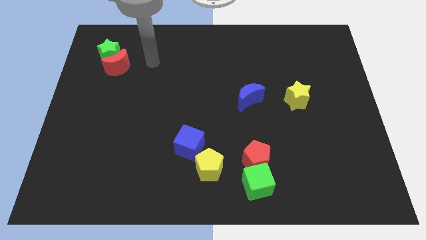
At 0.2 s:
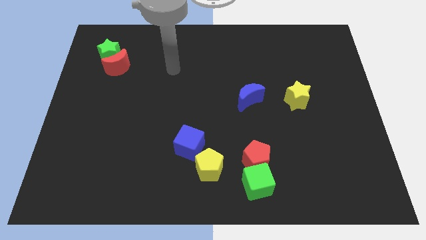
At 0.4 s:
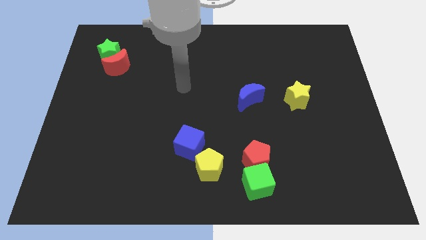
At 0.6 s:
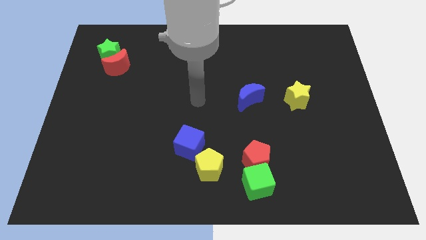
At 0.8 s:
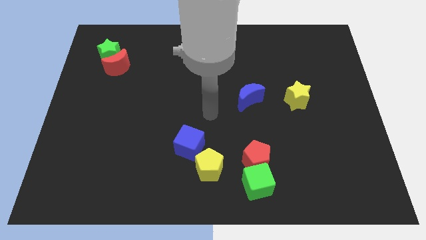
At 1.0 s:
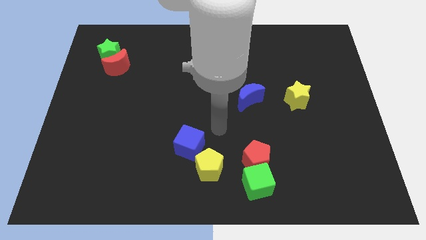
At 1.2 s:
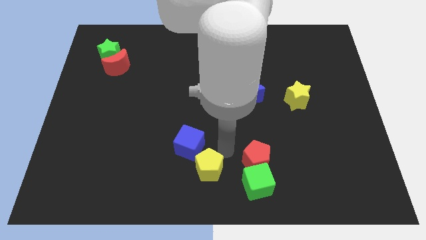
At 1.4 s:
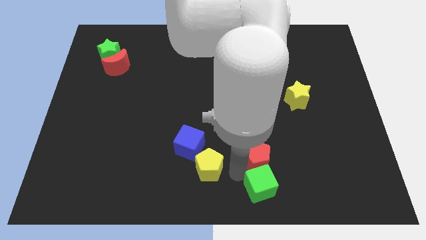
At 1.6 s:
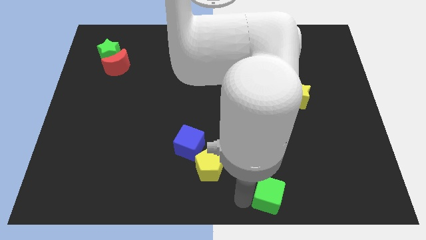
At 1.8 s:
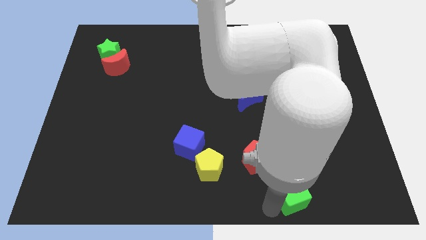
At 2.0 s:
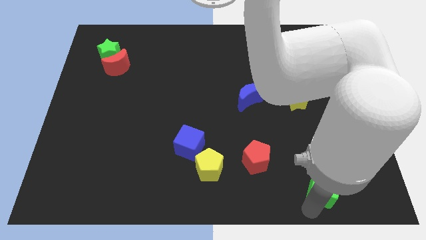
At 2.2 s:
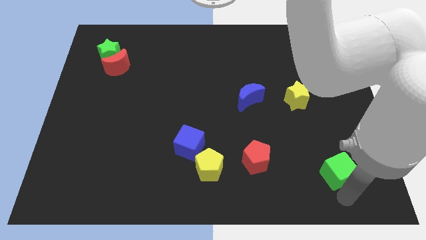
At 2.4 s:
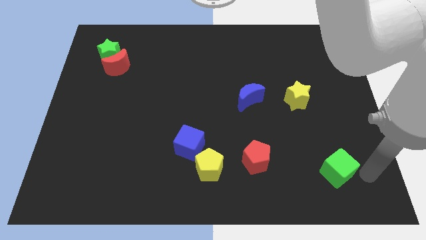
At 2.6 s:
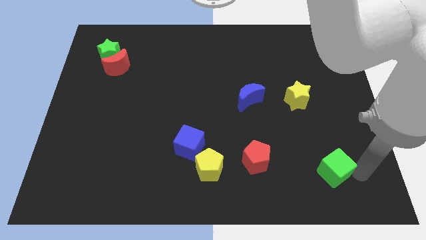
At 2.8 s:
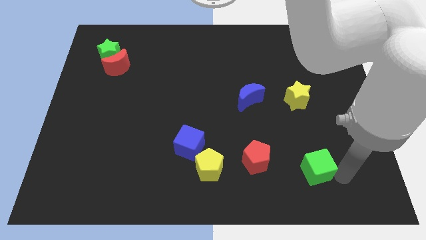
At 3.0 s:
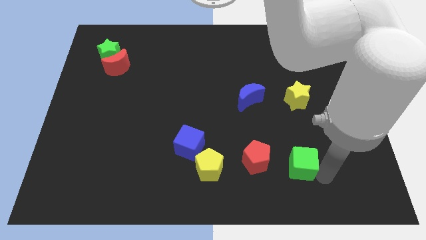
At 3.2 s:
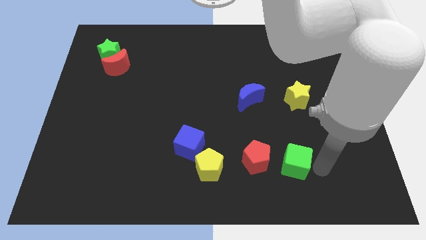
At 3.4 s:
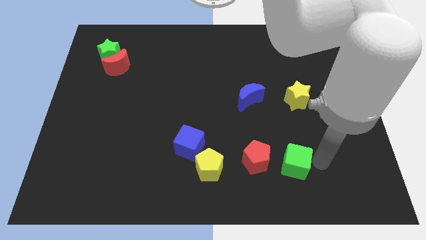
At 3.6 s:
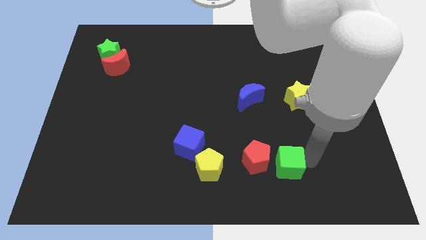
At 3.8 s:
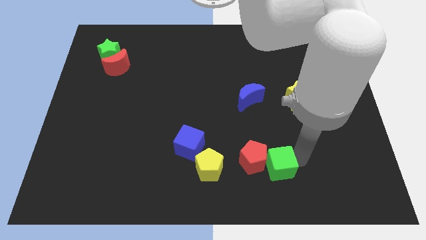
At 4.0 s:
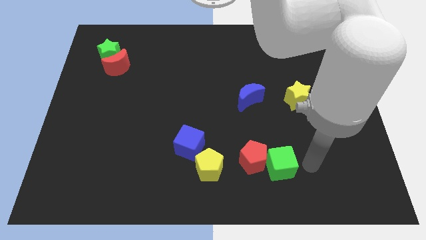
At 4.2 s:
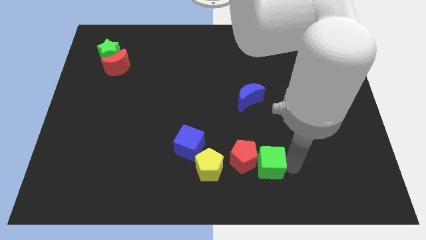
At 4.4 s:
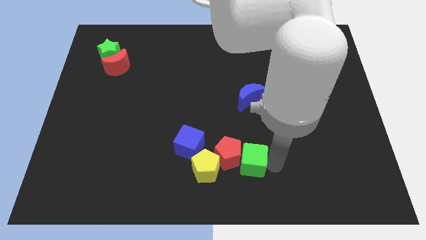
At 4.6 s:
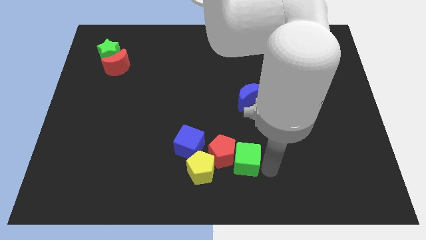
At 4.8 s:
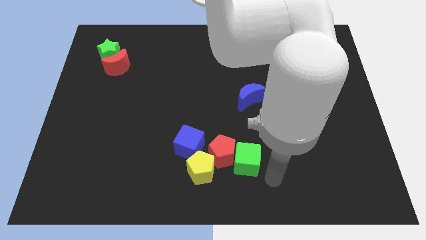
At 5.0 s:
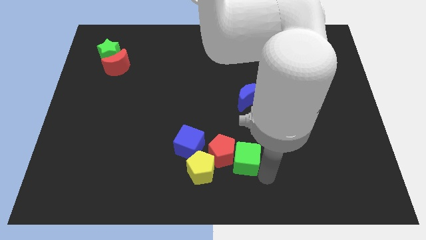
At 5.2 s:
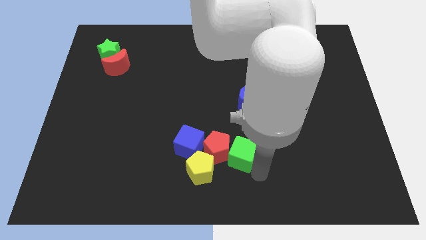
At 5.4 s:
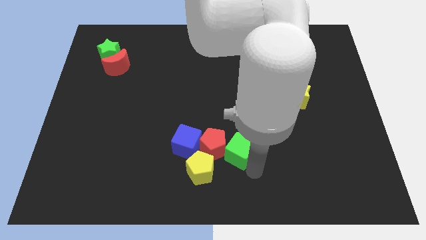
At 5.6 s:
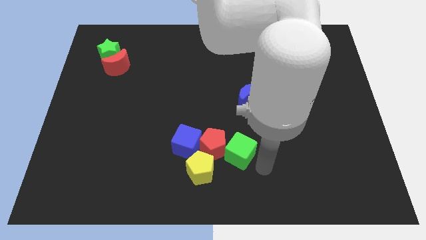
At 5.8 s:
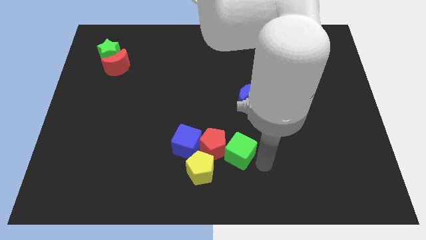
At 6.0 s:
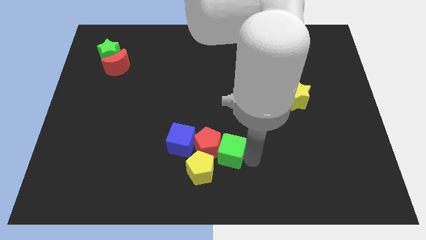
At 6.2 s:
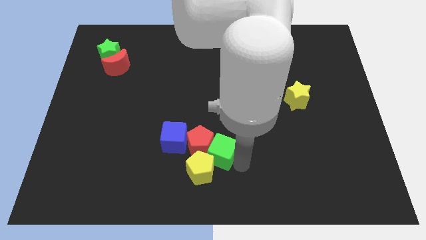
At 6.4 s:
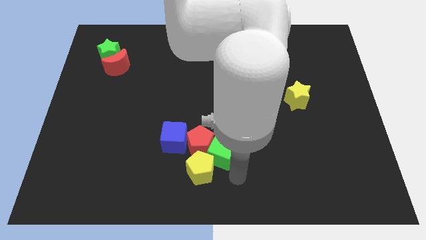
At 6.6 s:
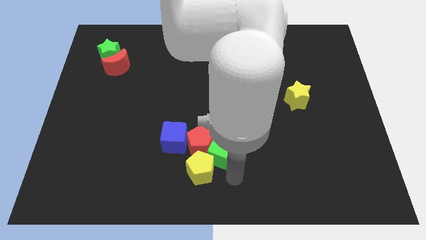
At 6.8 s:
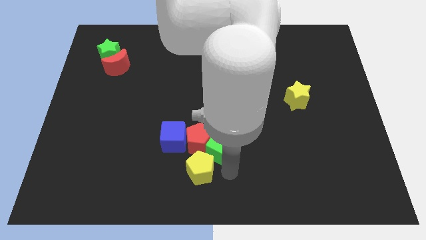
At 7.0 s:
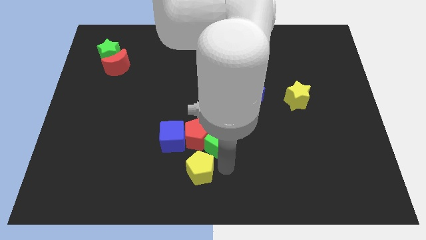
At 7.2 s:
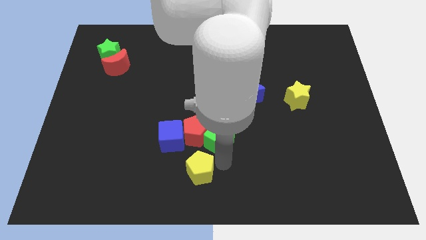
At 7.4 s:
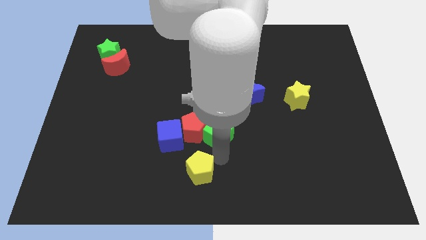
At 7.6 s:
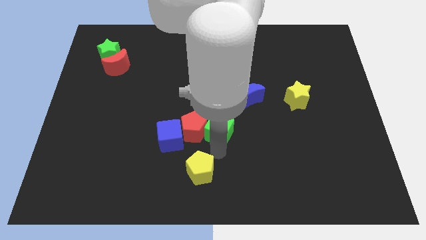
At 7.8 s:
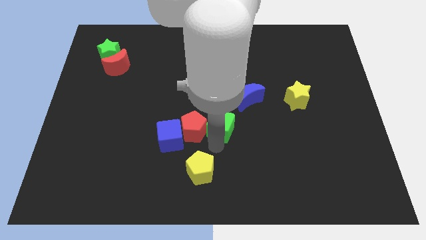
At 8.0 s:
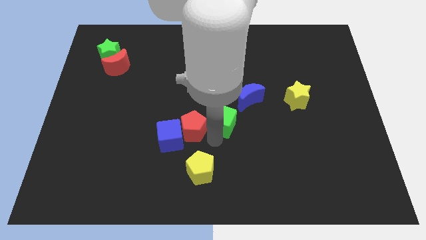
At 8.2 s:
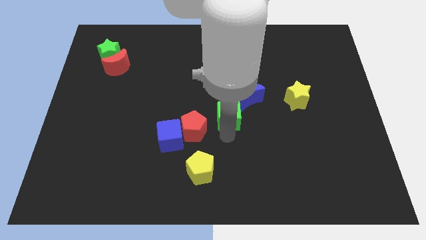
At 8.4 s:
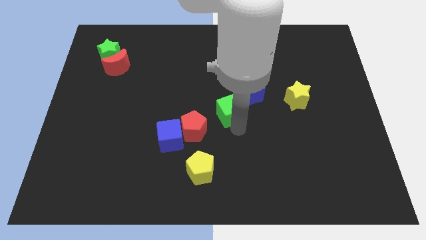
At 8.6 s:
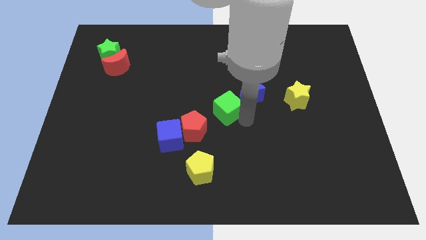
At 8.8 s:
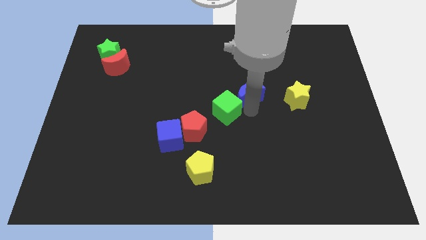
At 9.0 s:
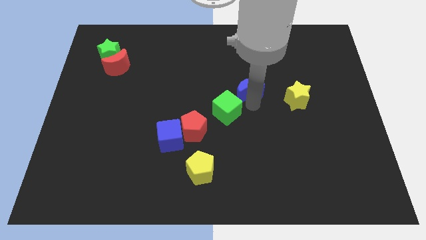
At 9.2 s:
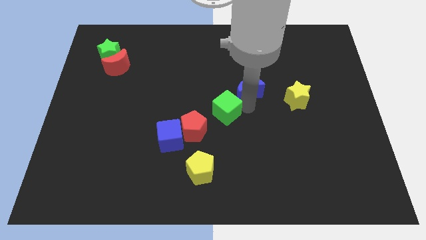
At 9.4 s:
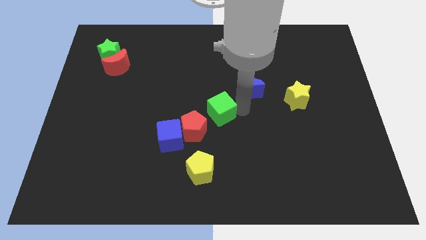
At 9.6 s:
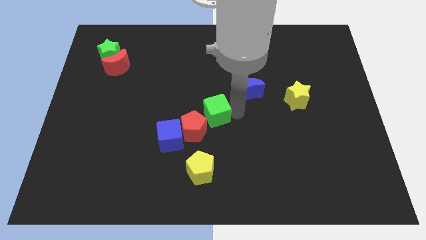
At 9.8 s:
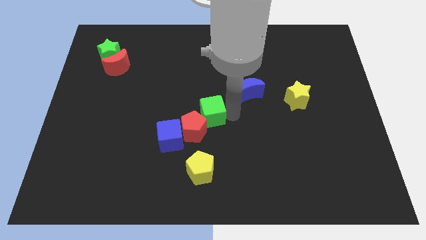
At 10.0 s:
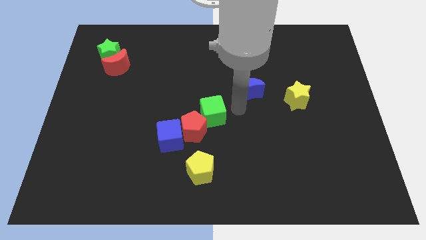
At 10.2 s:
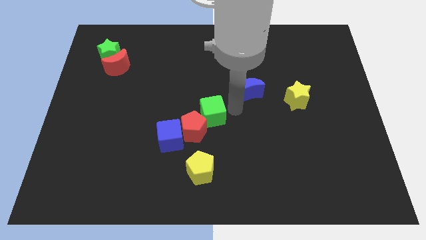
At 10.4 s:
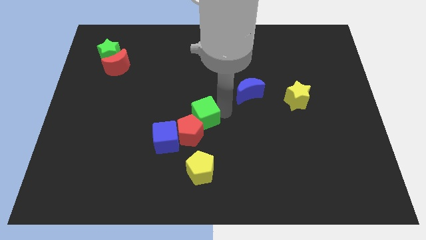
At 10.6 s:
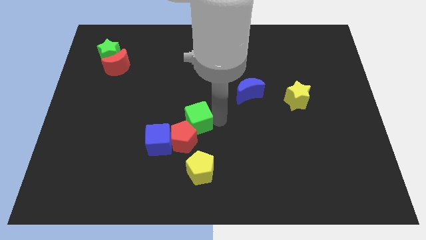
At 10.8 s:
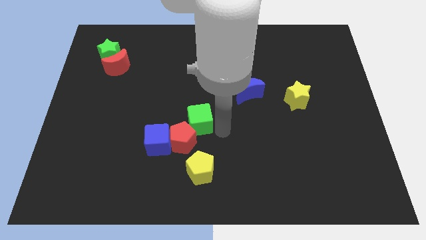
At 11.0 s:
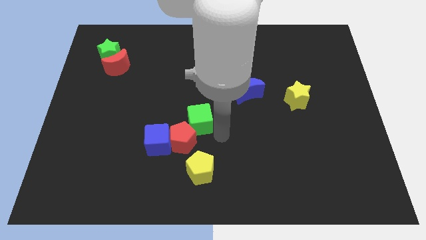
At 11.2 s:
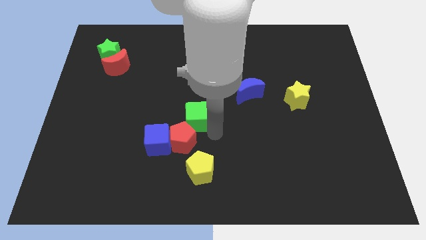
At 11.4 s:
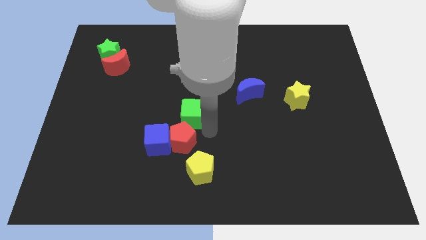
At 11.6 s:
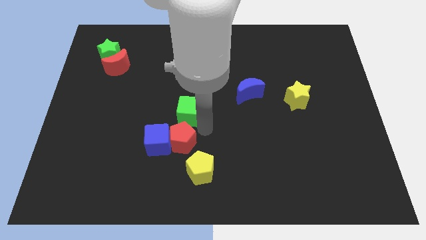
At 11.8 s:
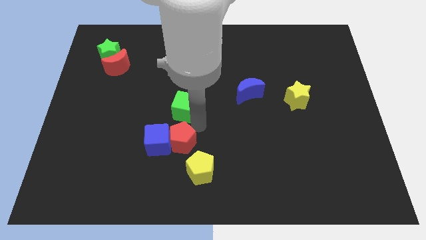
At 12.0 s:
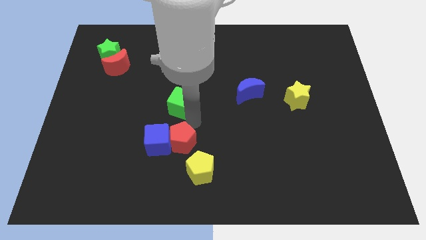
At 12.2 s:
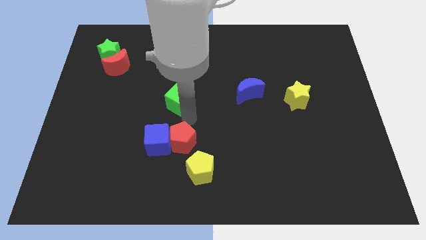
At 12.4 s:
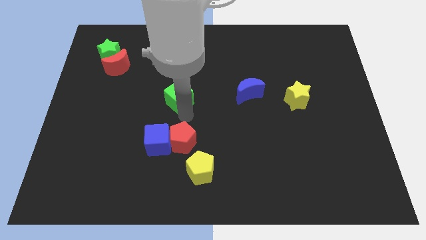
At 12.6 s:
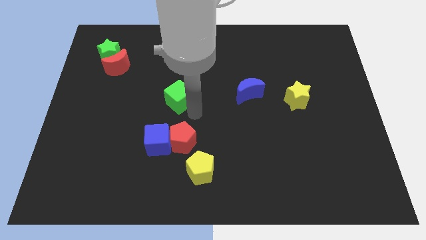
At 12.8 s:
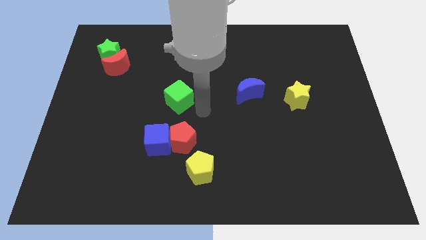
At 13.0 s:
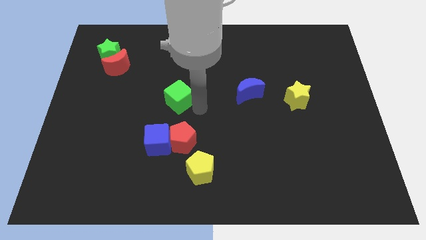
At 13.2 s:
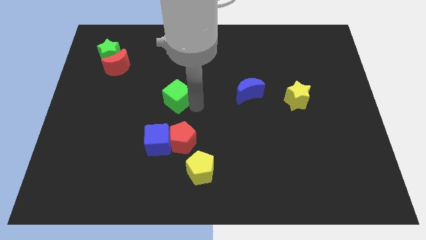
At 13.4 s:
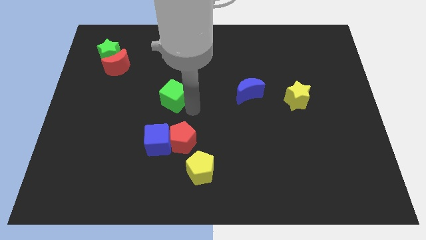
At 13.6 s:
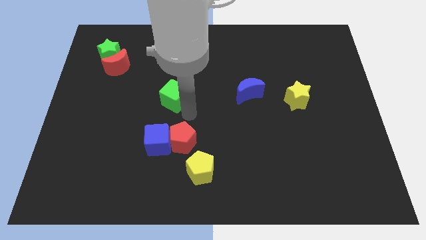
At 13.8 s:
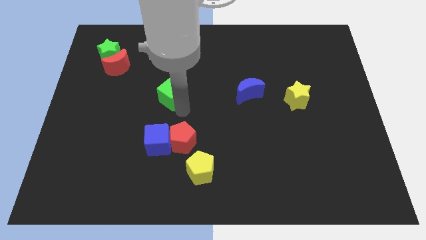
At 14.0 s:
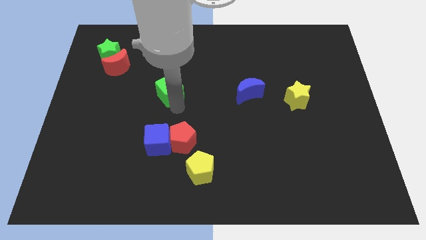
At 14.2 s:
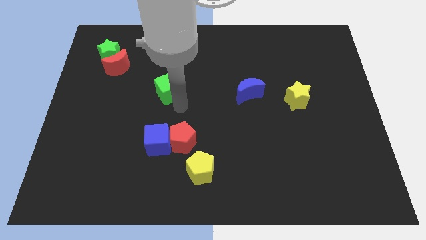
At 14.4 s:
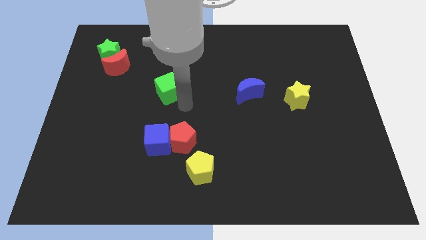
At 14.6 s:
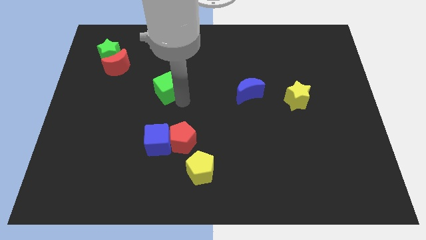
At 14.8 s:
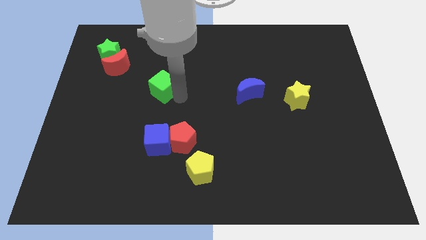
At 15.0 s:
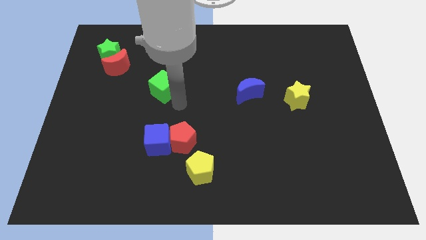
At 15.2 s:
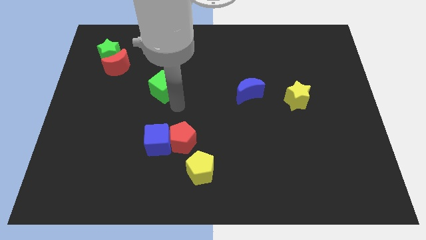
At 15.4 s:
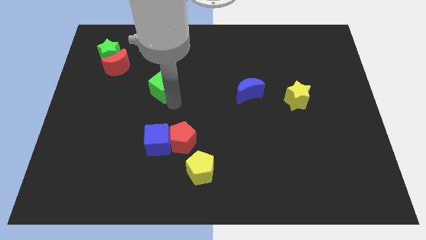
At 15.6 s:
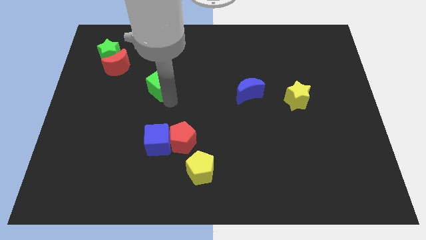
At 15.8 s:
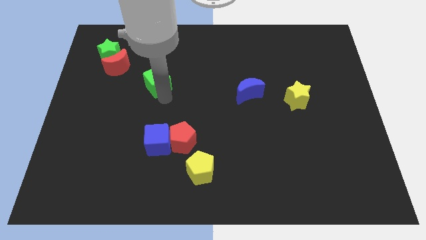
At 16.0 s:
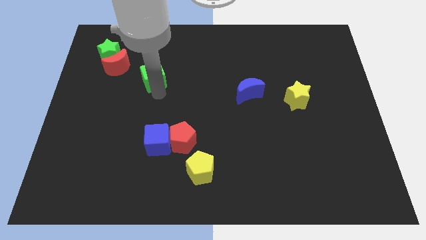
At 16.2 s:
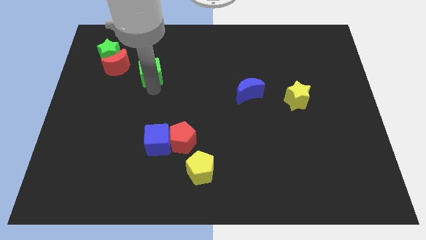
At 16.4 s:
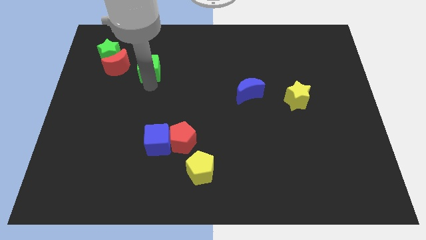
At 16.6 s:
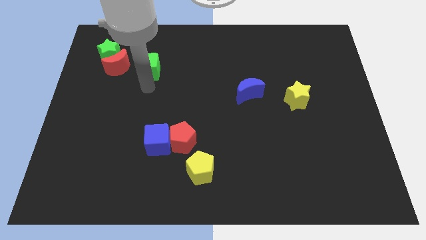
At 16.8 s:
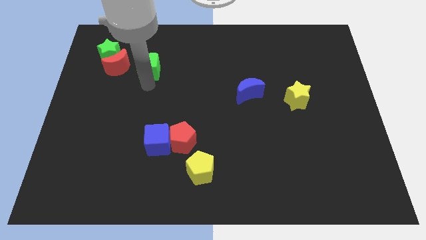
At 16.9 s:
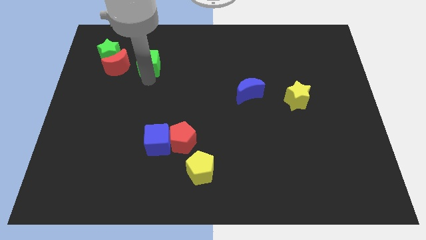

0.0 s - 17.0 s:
slide the green cube just right of the green star
